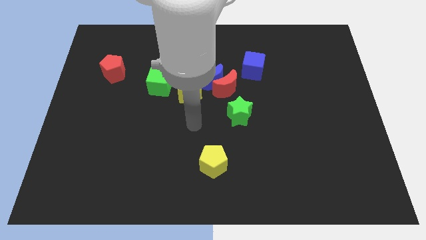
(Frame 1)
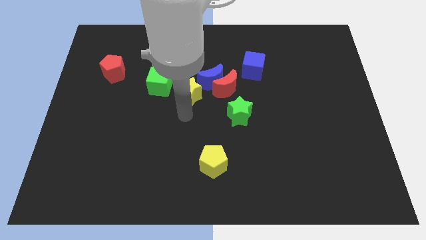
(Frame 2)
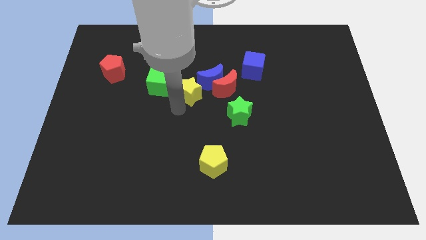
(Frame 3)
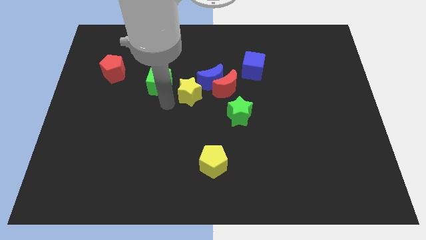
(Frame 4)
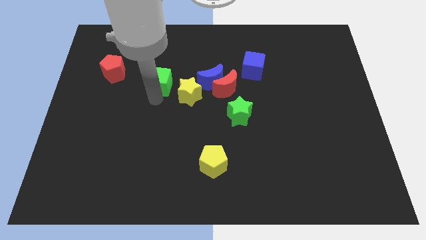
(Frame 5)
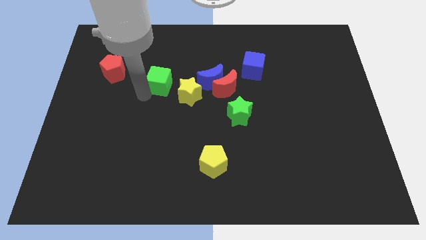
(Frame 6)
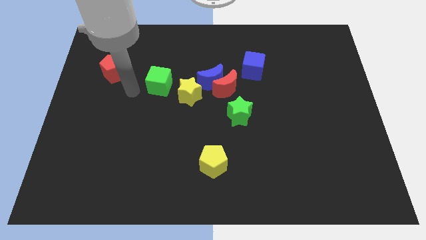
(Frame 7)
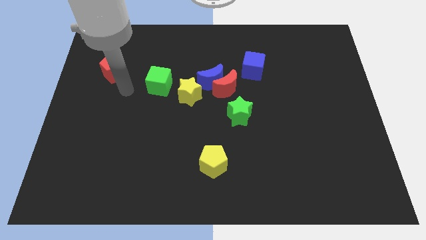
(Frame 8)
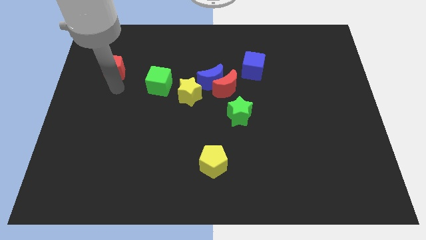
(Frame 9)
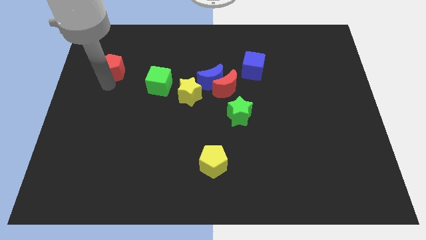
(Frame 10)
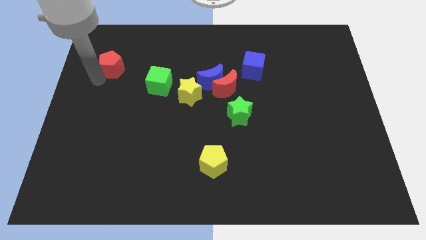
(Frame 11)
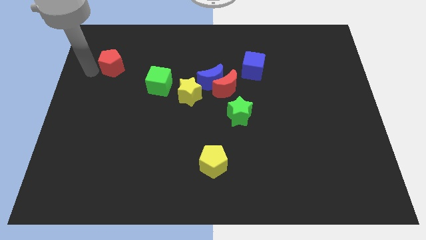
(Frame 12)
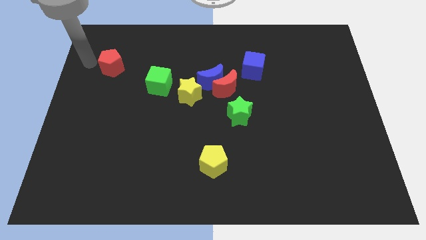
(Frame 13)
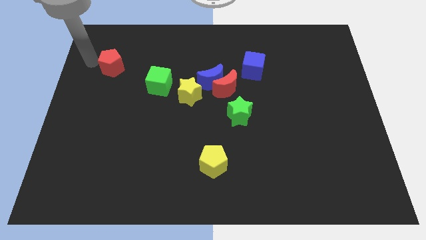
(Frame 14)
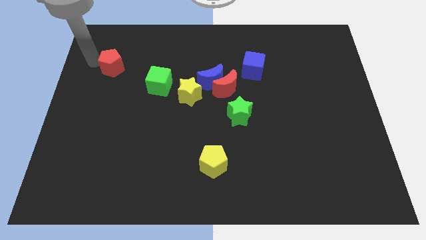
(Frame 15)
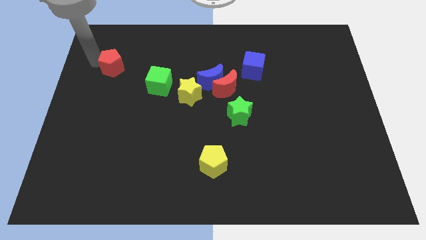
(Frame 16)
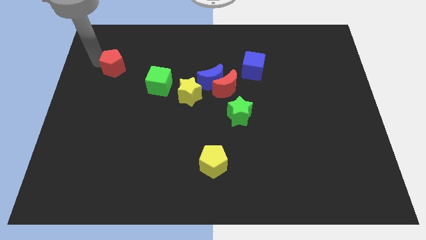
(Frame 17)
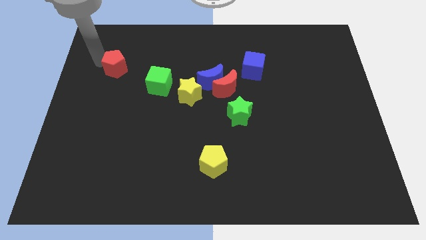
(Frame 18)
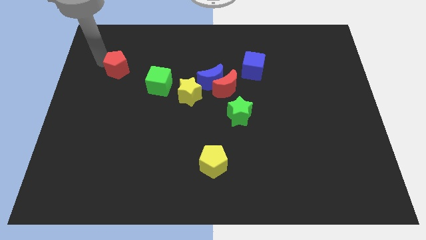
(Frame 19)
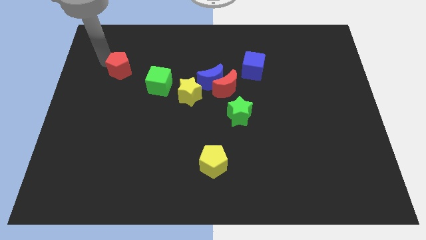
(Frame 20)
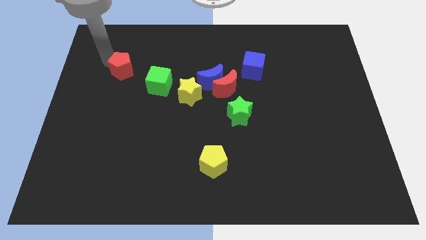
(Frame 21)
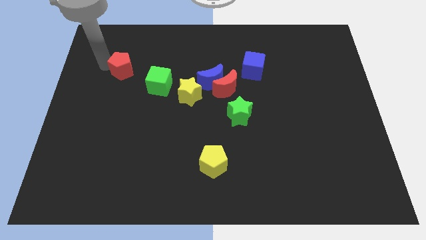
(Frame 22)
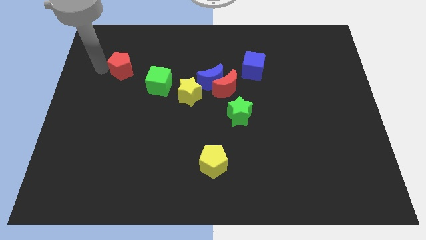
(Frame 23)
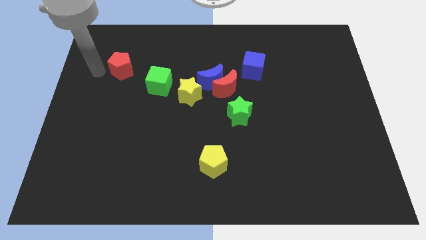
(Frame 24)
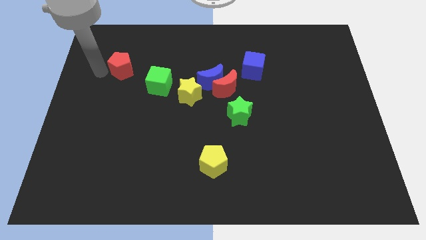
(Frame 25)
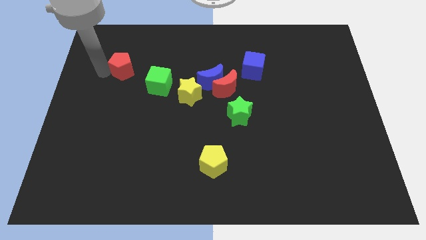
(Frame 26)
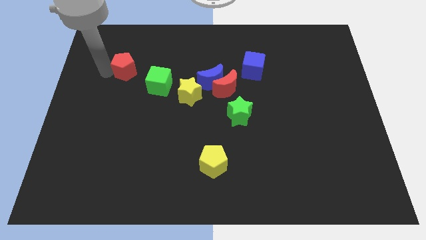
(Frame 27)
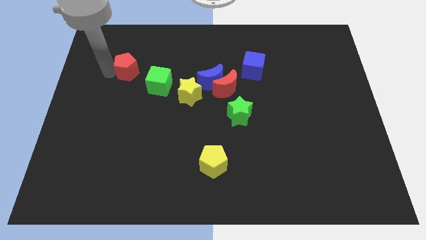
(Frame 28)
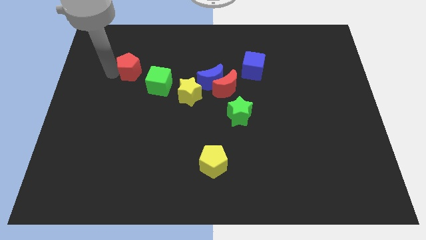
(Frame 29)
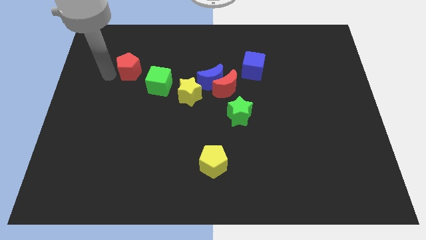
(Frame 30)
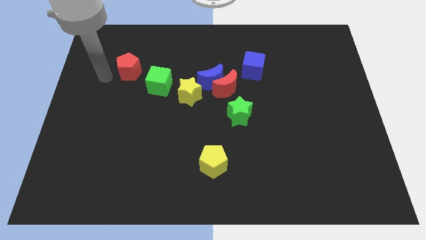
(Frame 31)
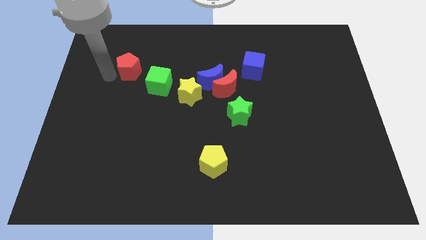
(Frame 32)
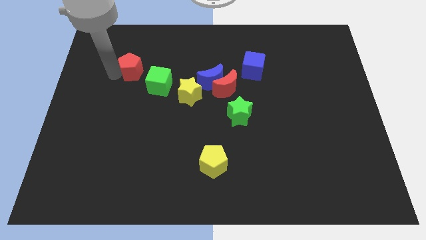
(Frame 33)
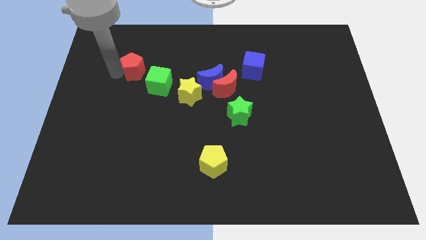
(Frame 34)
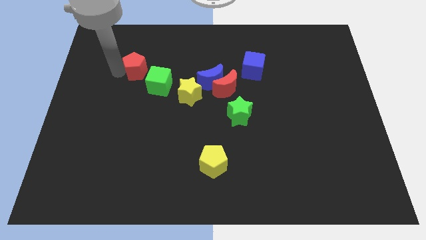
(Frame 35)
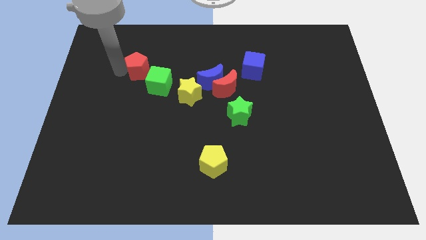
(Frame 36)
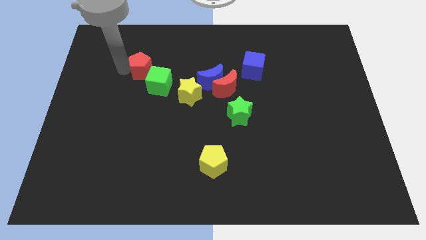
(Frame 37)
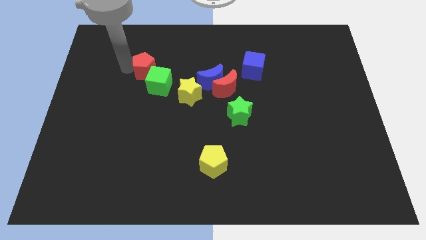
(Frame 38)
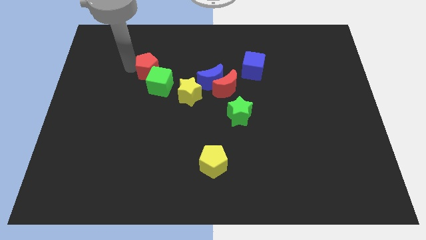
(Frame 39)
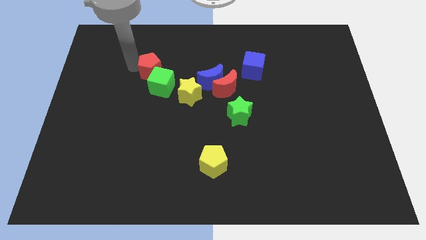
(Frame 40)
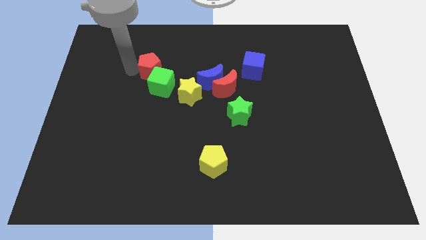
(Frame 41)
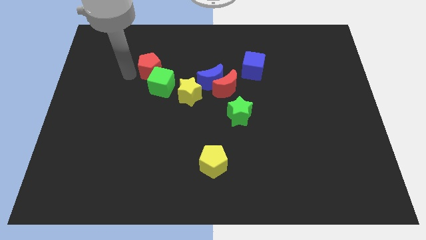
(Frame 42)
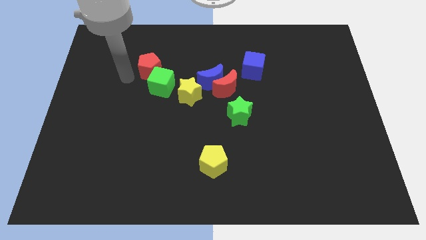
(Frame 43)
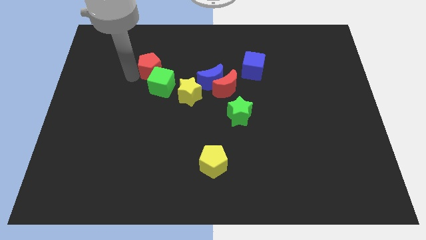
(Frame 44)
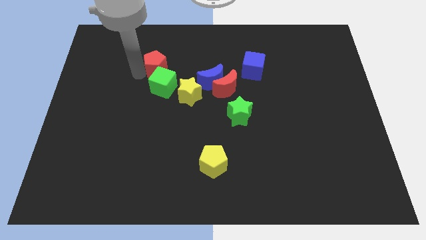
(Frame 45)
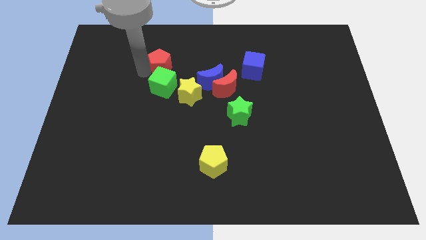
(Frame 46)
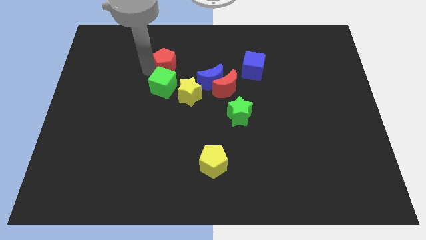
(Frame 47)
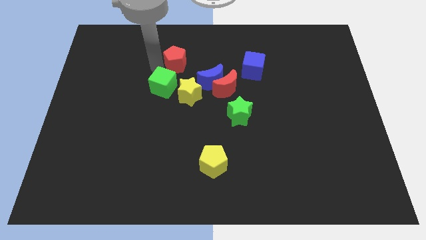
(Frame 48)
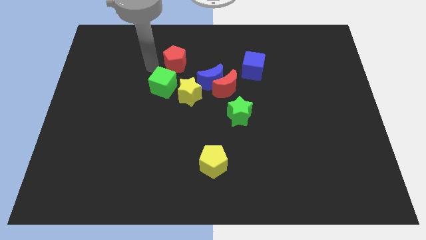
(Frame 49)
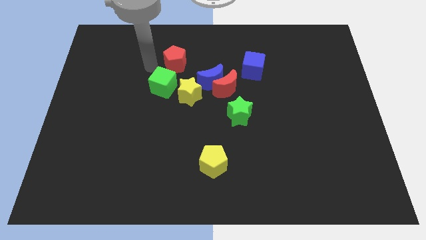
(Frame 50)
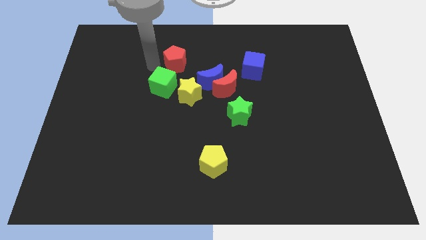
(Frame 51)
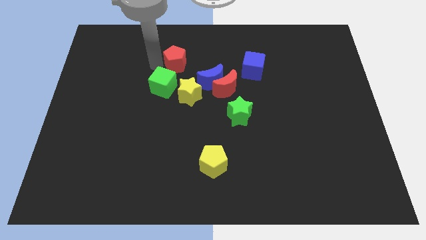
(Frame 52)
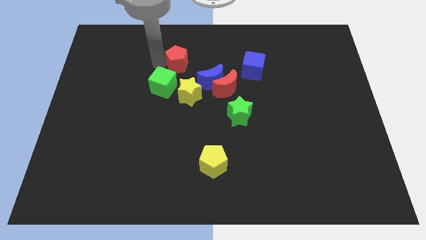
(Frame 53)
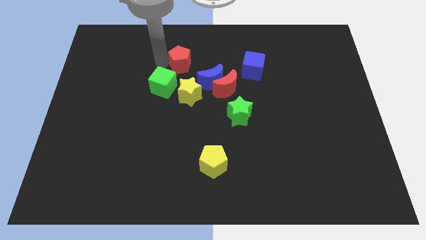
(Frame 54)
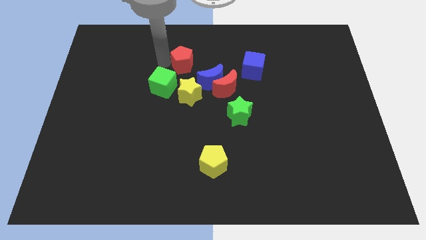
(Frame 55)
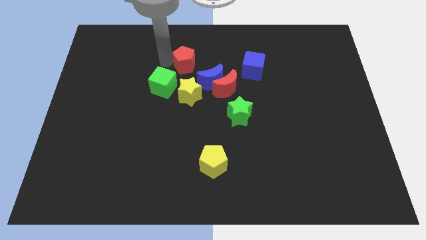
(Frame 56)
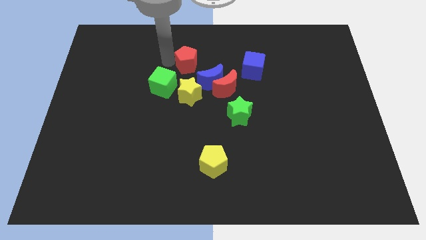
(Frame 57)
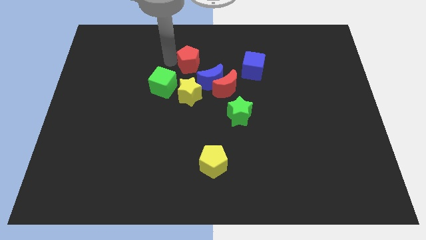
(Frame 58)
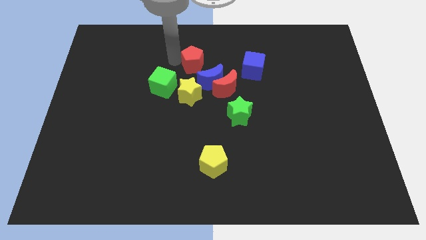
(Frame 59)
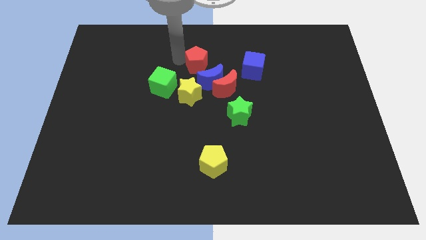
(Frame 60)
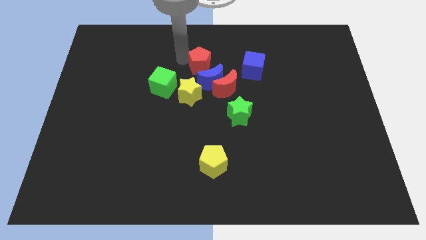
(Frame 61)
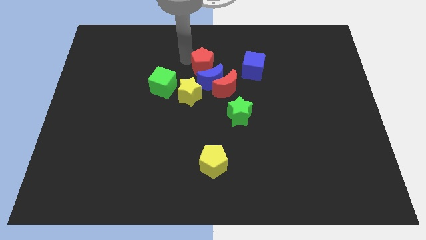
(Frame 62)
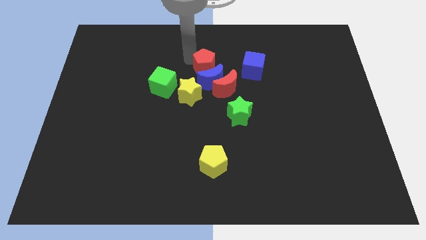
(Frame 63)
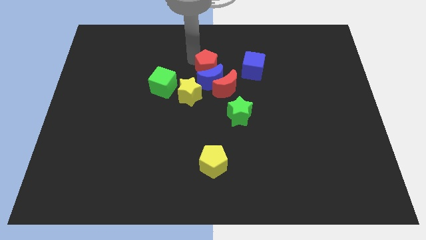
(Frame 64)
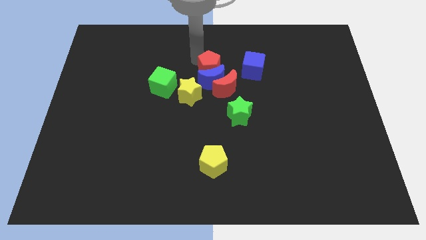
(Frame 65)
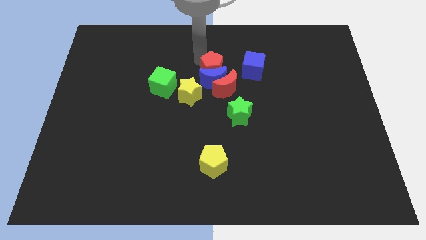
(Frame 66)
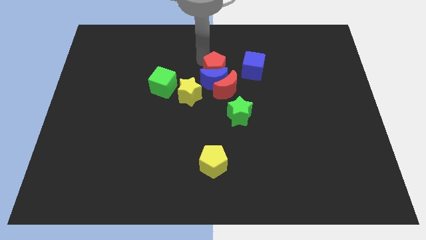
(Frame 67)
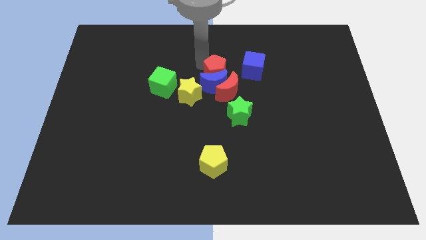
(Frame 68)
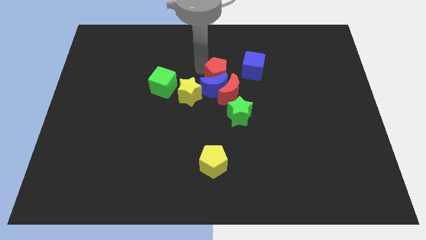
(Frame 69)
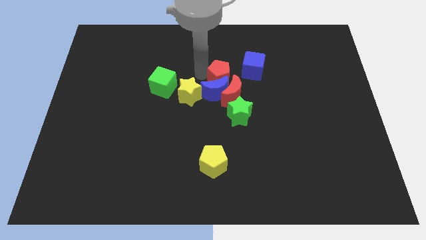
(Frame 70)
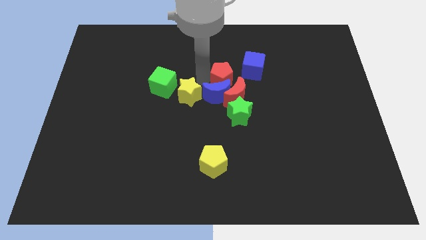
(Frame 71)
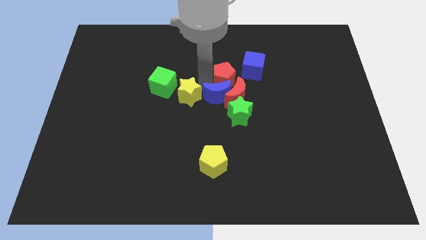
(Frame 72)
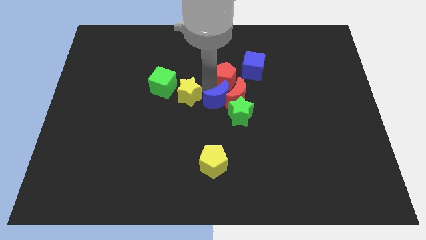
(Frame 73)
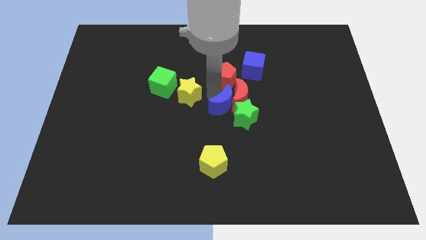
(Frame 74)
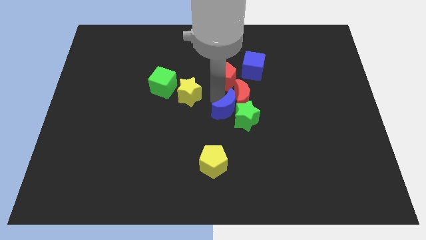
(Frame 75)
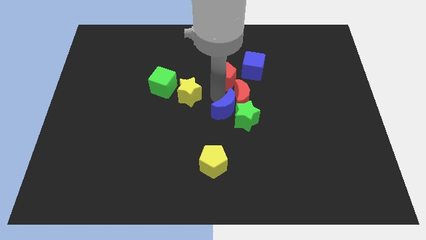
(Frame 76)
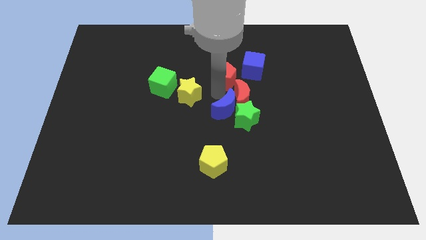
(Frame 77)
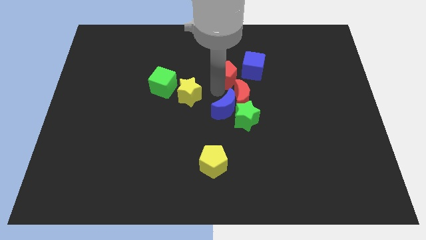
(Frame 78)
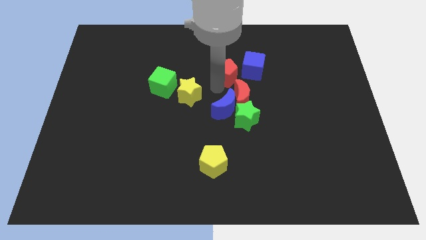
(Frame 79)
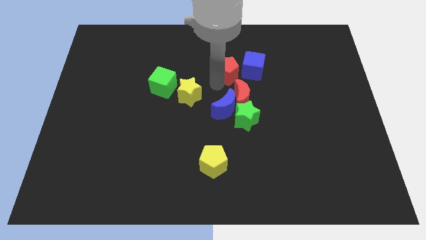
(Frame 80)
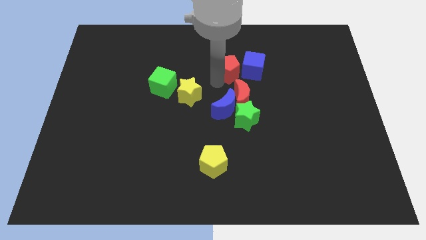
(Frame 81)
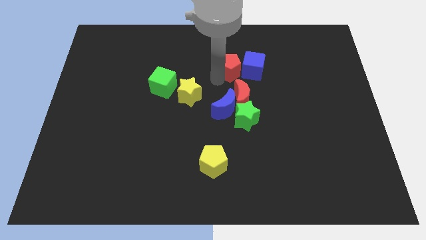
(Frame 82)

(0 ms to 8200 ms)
slide the red pentagon diagonally up and to the left of the blue cube
